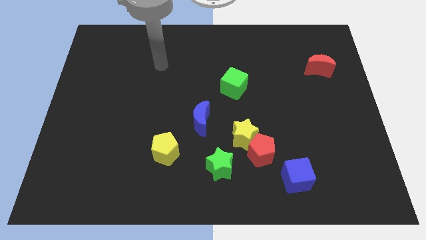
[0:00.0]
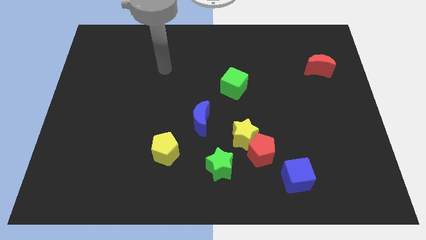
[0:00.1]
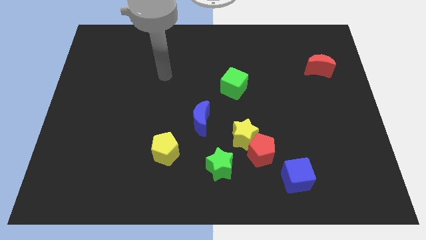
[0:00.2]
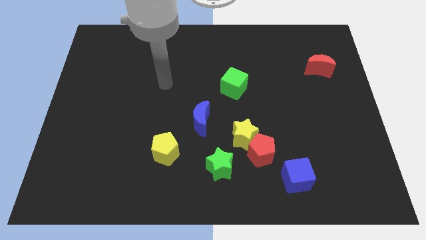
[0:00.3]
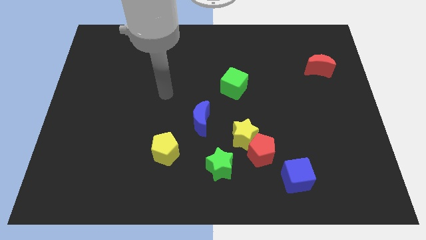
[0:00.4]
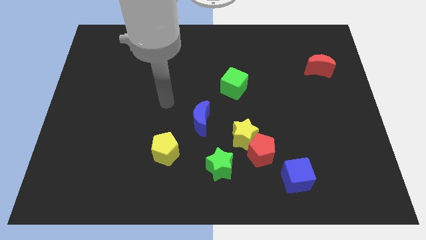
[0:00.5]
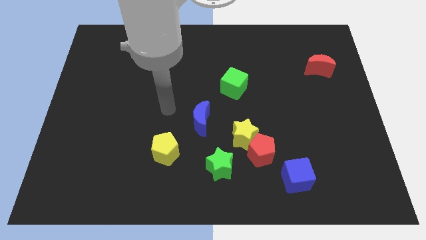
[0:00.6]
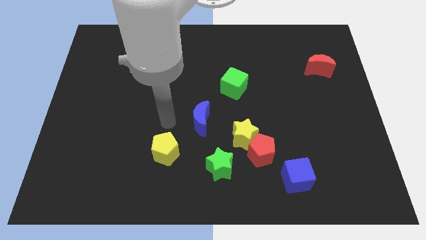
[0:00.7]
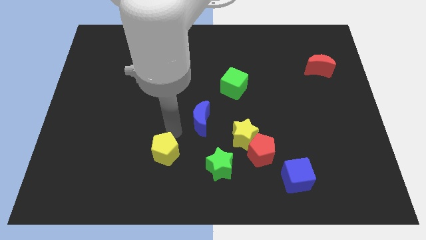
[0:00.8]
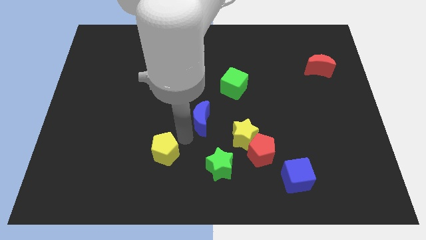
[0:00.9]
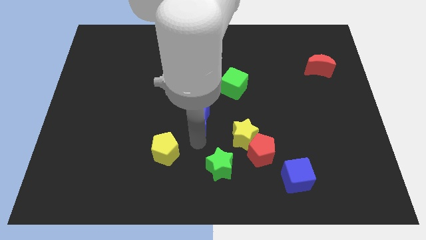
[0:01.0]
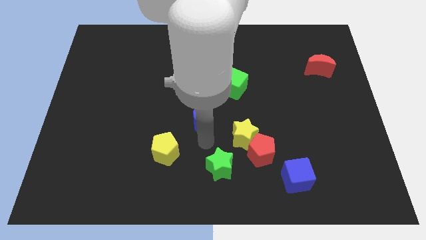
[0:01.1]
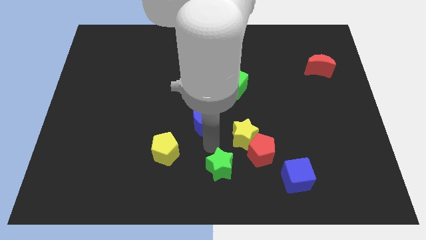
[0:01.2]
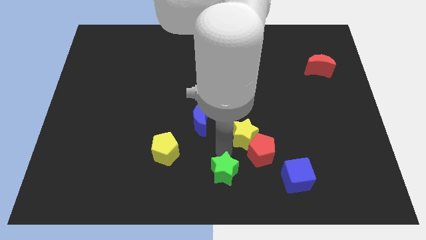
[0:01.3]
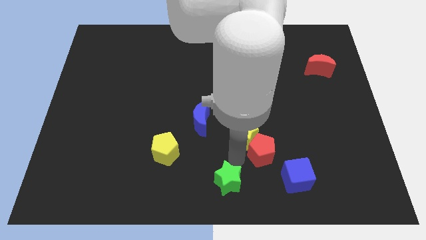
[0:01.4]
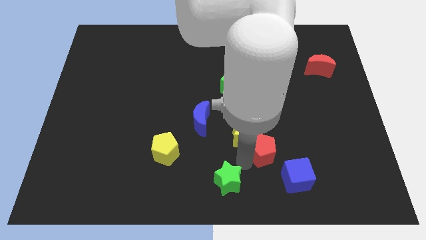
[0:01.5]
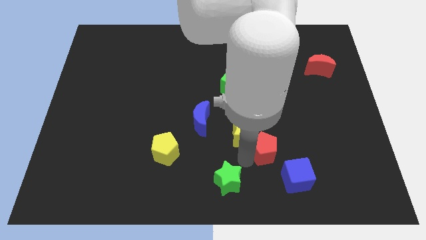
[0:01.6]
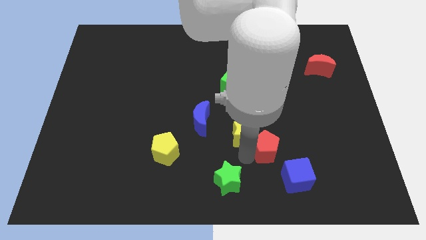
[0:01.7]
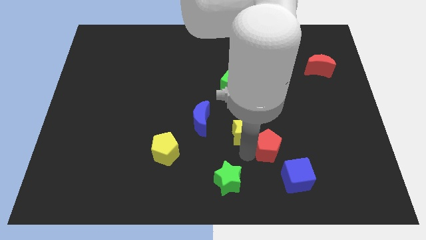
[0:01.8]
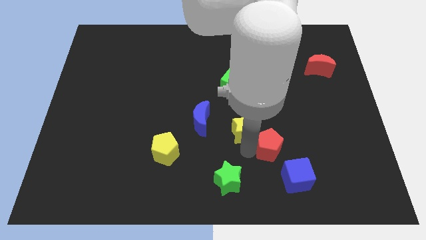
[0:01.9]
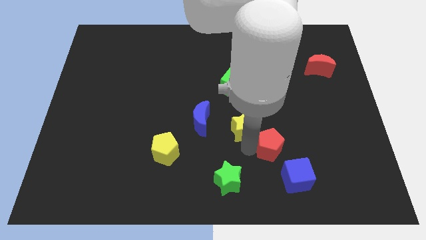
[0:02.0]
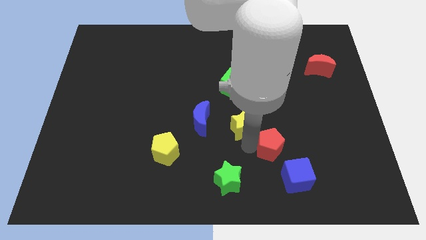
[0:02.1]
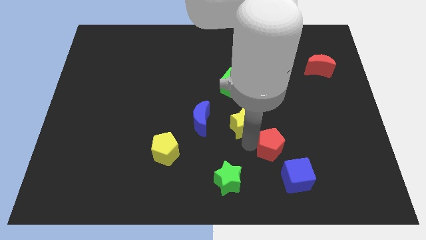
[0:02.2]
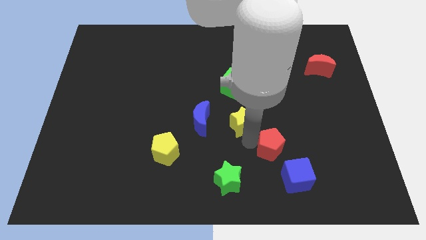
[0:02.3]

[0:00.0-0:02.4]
pull the yellow star apart from the red pentagon and green star

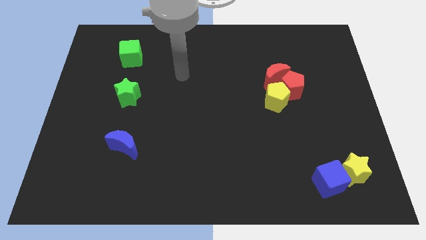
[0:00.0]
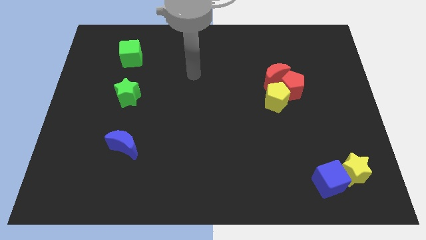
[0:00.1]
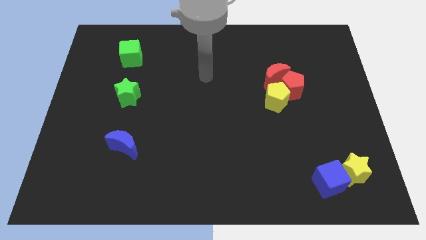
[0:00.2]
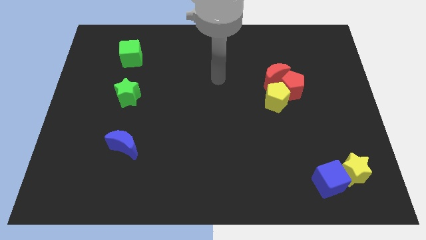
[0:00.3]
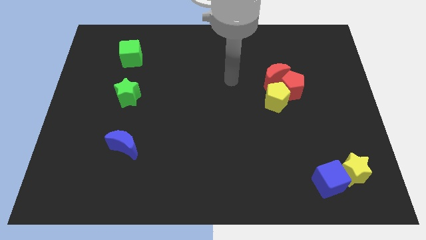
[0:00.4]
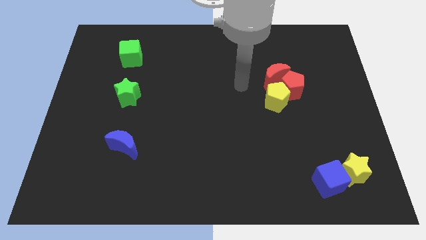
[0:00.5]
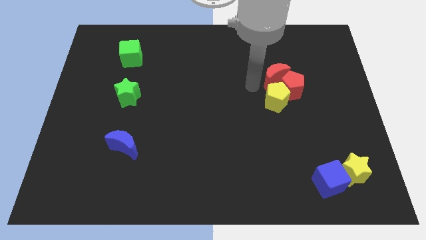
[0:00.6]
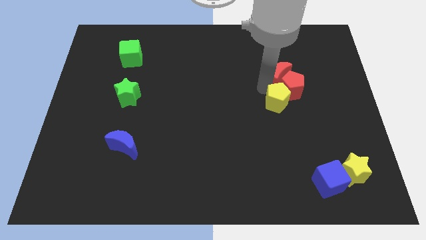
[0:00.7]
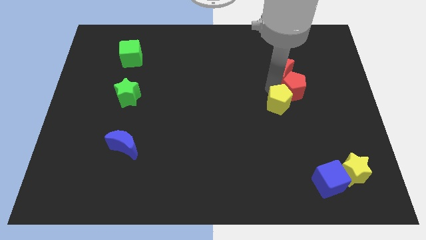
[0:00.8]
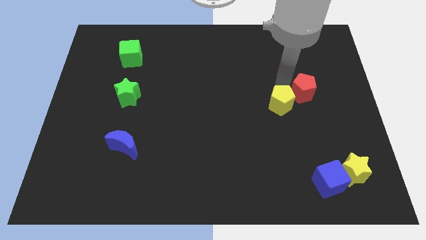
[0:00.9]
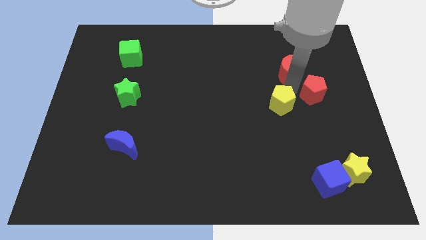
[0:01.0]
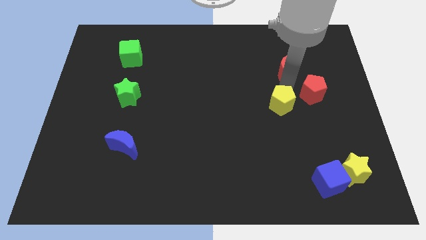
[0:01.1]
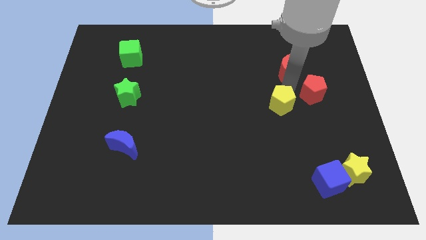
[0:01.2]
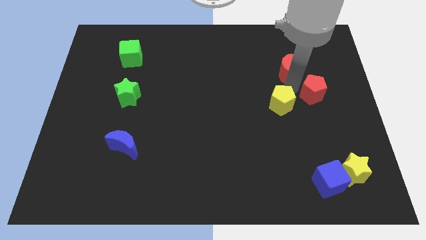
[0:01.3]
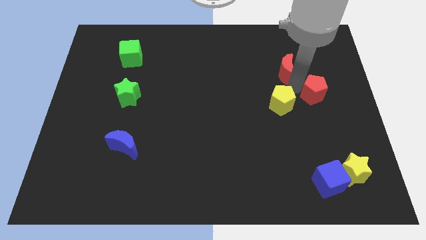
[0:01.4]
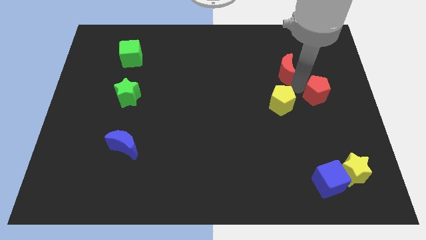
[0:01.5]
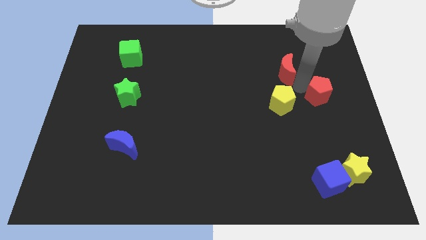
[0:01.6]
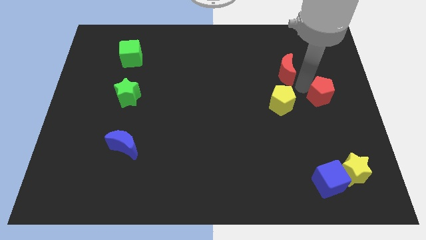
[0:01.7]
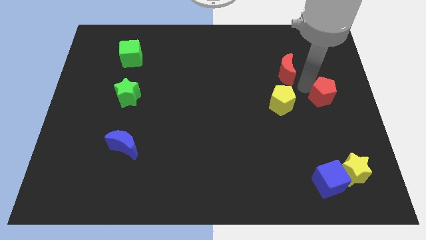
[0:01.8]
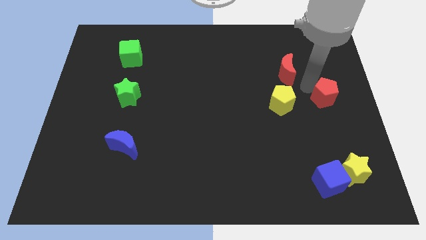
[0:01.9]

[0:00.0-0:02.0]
pull the red pentagon apart from the red moon and yellow pentagon

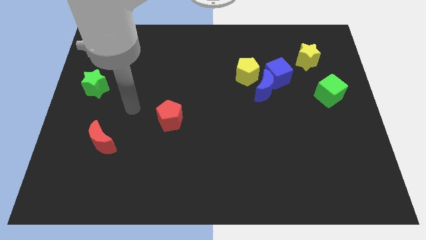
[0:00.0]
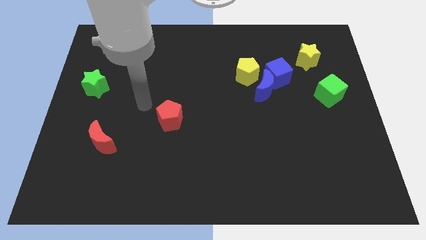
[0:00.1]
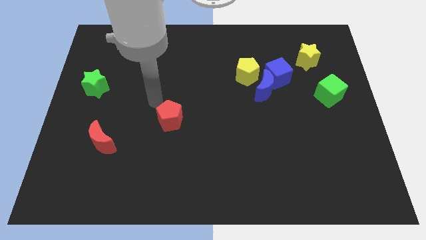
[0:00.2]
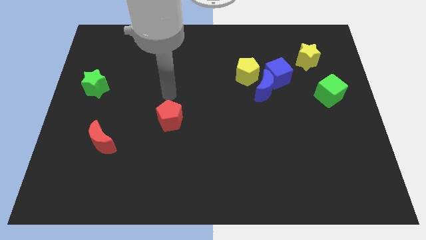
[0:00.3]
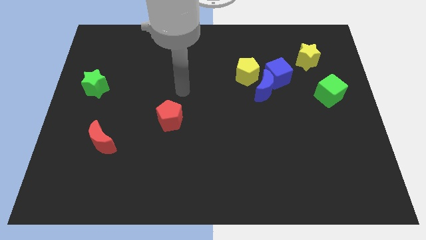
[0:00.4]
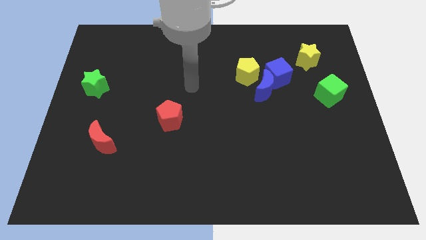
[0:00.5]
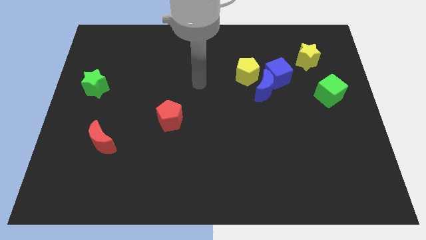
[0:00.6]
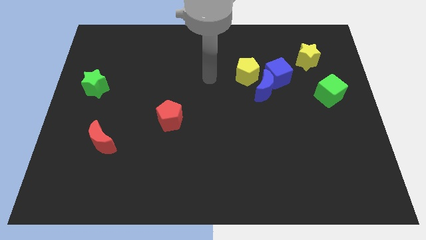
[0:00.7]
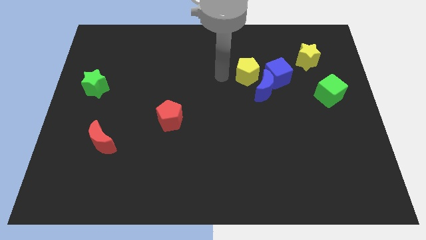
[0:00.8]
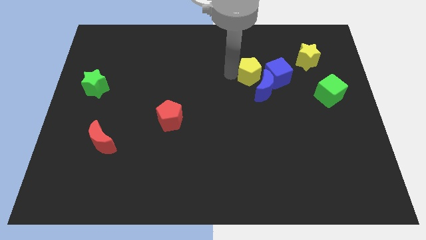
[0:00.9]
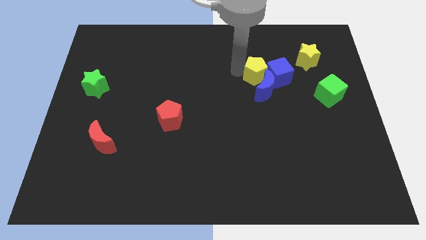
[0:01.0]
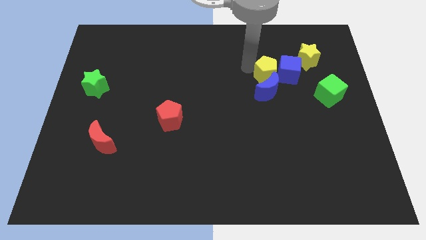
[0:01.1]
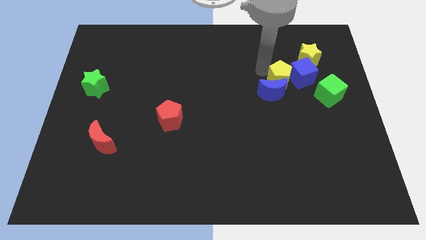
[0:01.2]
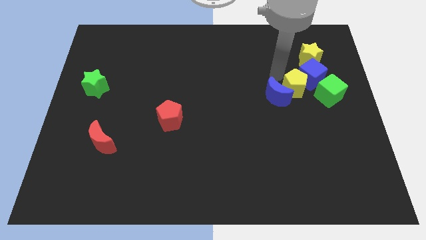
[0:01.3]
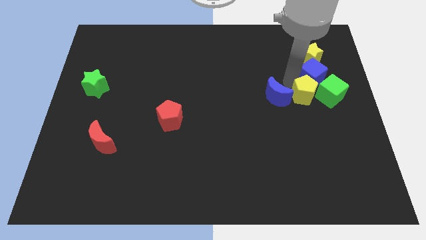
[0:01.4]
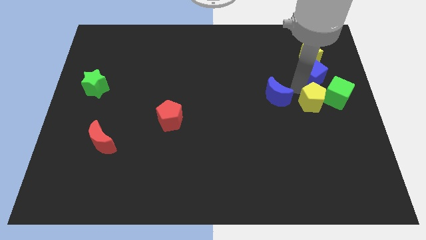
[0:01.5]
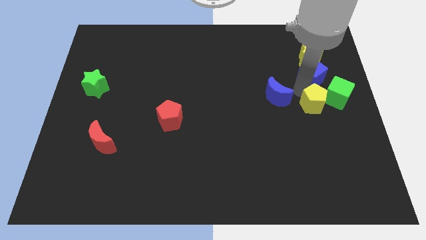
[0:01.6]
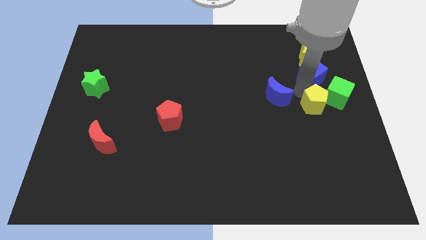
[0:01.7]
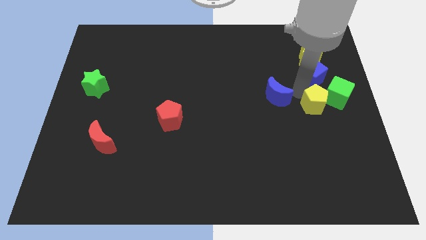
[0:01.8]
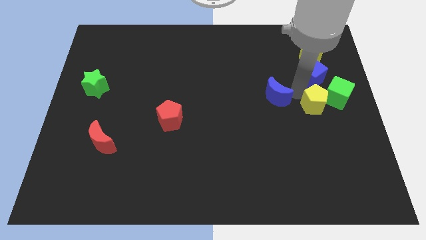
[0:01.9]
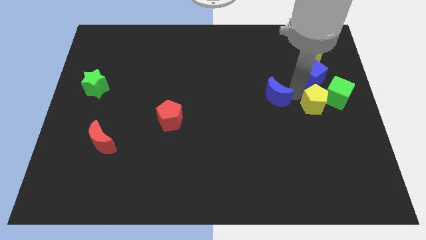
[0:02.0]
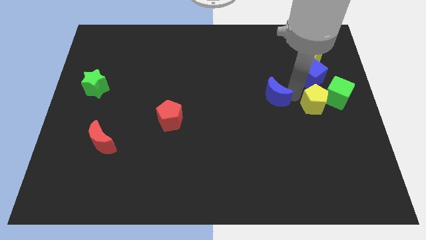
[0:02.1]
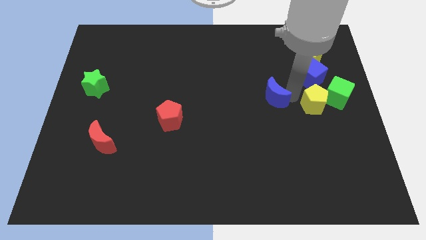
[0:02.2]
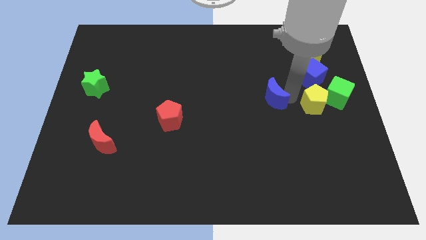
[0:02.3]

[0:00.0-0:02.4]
separate the blue moon from the blue cube and yellow pentagon

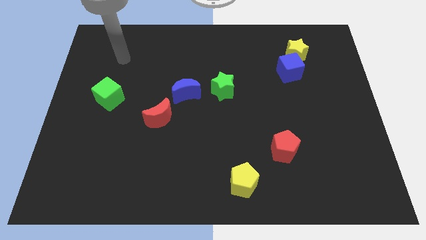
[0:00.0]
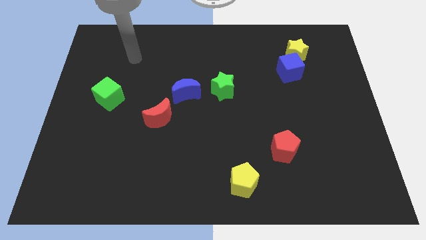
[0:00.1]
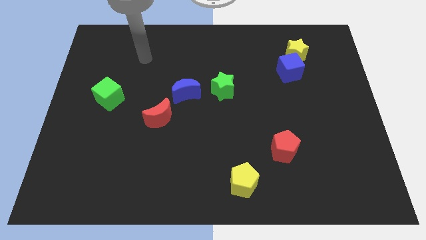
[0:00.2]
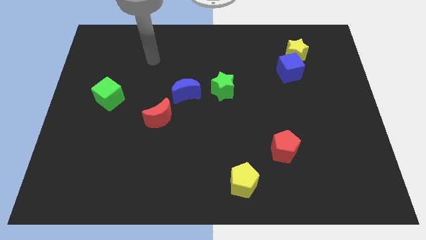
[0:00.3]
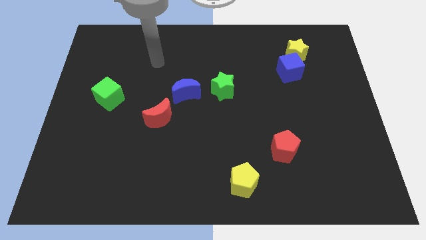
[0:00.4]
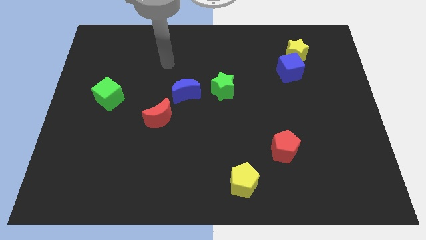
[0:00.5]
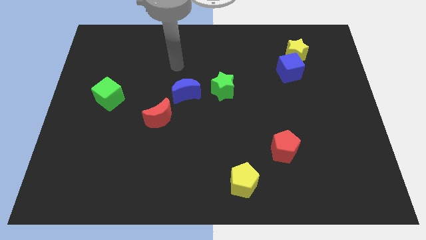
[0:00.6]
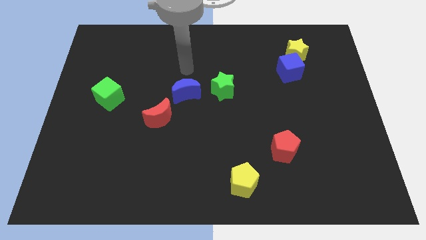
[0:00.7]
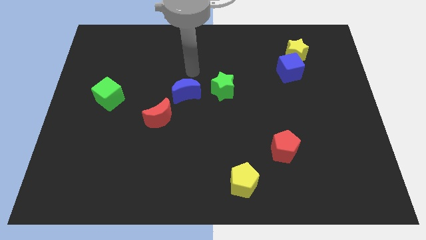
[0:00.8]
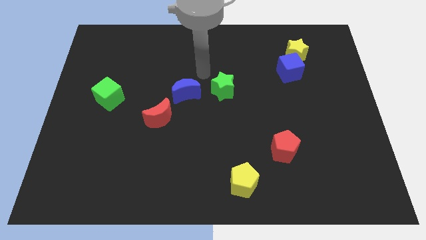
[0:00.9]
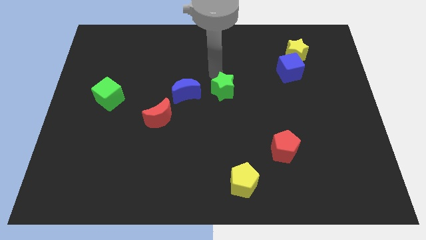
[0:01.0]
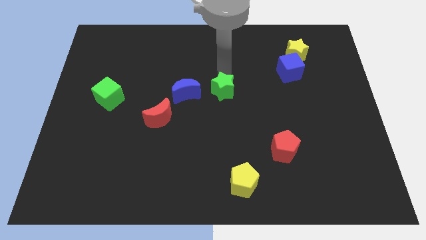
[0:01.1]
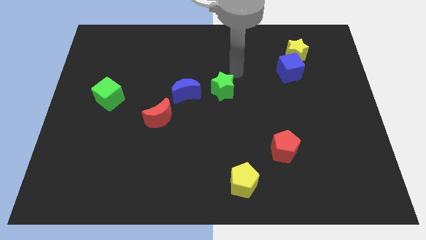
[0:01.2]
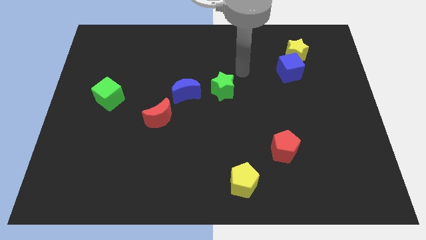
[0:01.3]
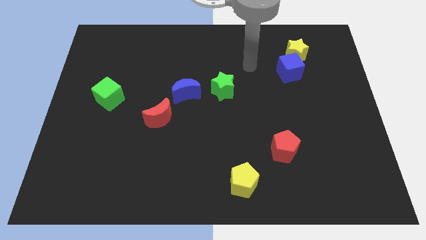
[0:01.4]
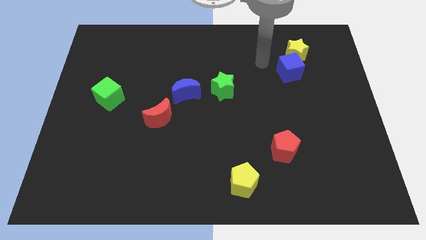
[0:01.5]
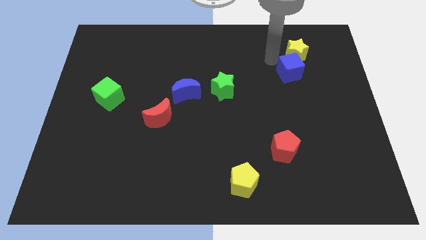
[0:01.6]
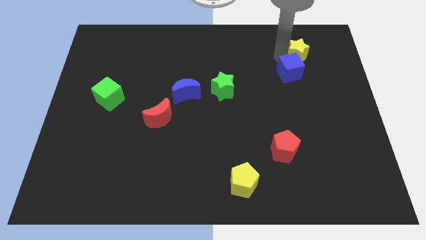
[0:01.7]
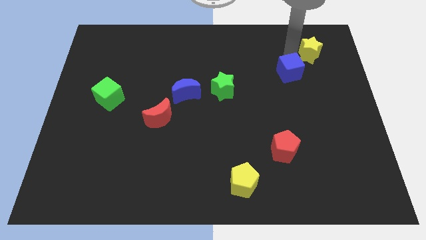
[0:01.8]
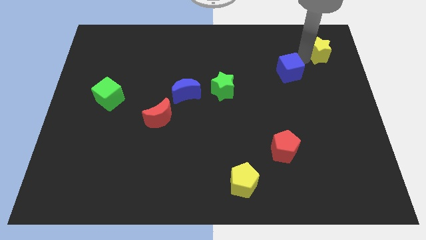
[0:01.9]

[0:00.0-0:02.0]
separate the blue cube from the yellow star

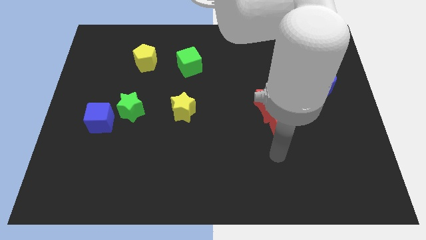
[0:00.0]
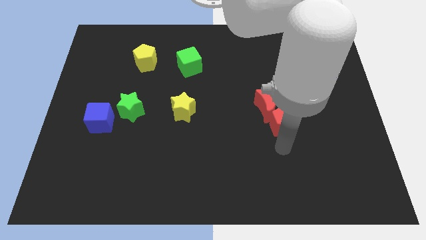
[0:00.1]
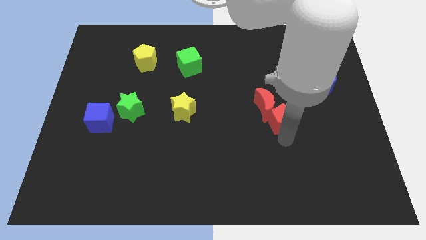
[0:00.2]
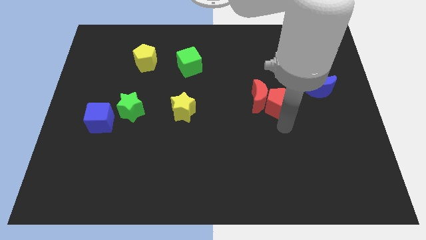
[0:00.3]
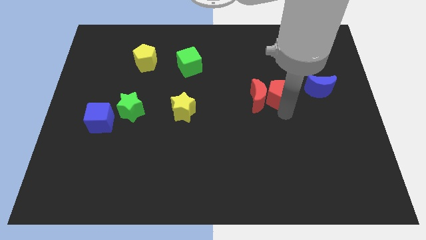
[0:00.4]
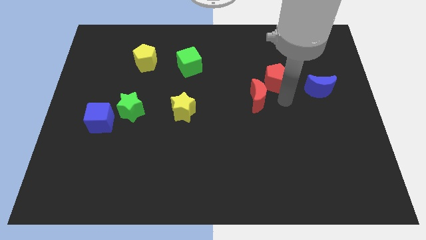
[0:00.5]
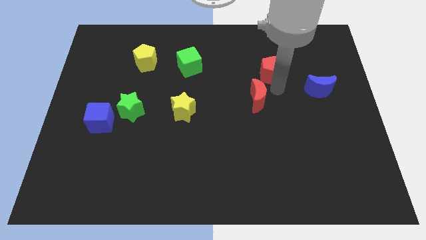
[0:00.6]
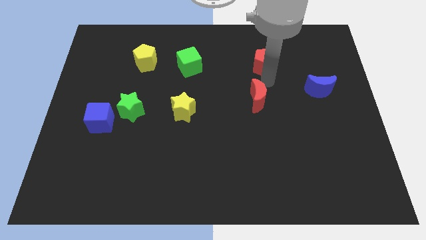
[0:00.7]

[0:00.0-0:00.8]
separate the red moon from the red pentagon
